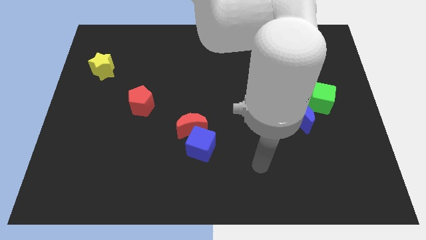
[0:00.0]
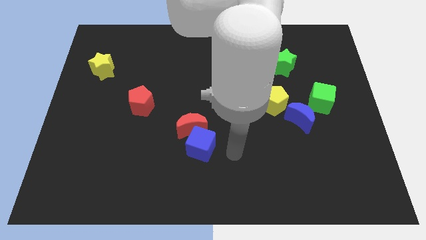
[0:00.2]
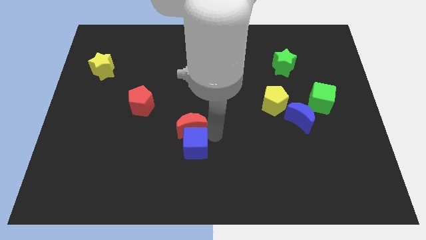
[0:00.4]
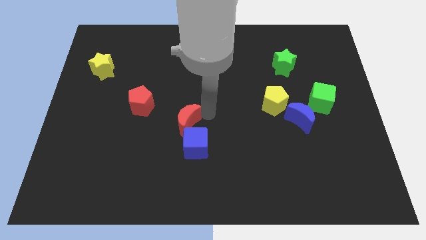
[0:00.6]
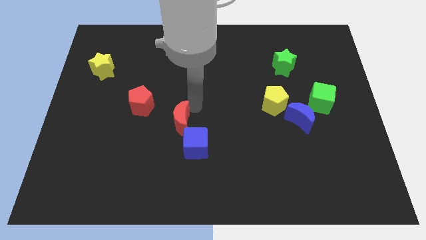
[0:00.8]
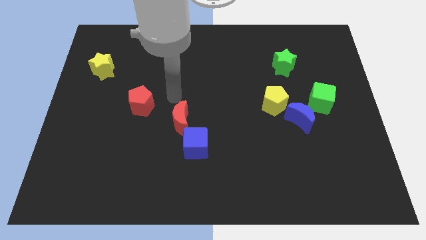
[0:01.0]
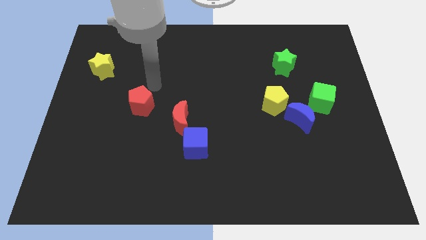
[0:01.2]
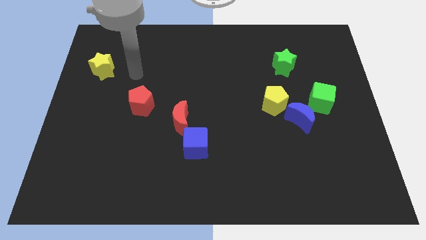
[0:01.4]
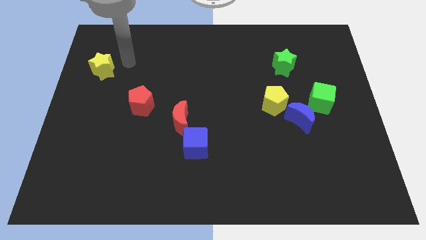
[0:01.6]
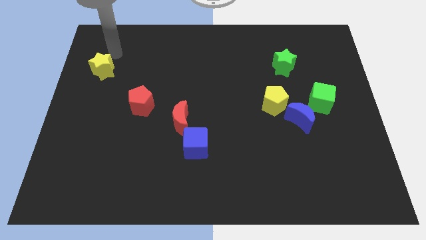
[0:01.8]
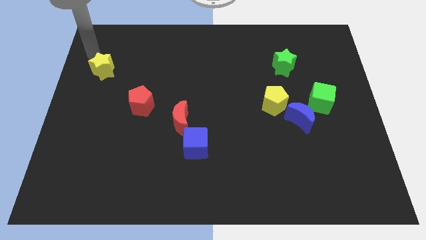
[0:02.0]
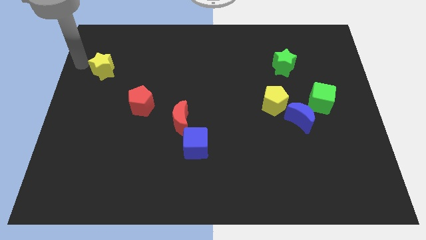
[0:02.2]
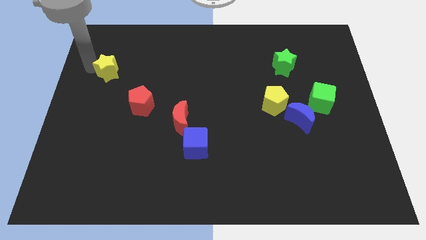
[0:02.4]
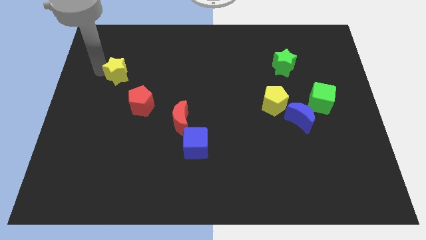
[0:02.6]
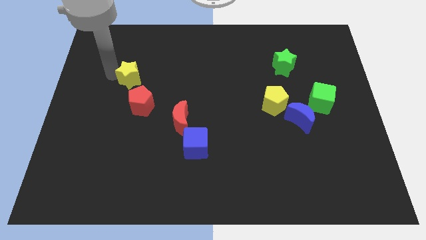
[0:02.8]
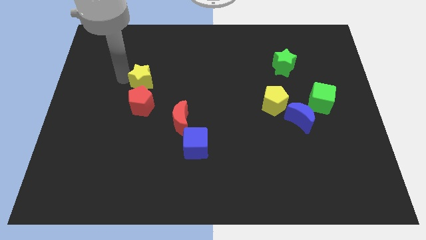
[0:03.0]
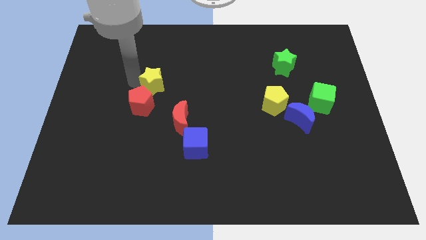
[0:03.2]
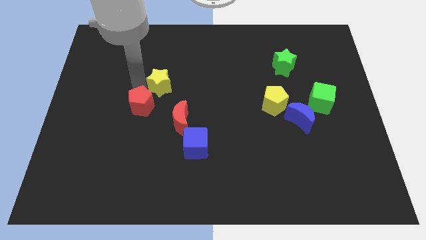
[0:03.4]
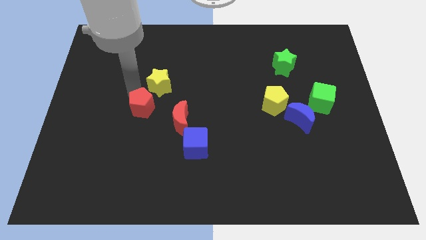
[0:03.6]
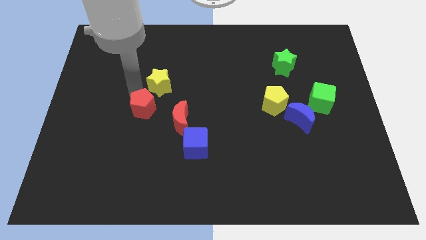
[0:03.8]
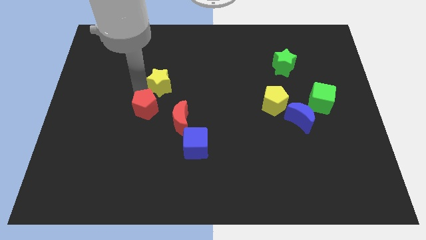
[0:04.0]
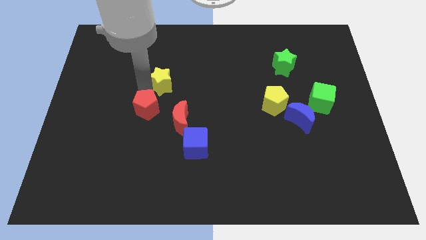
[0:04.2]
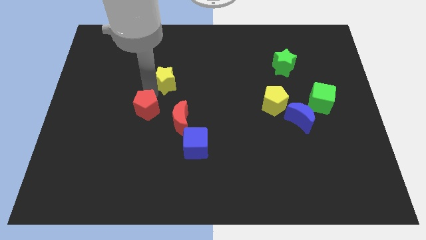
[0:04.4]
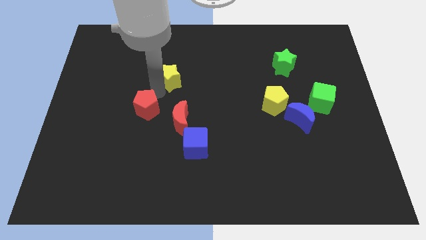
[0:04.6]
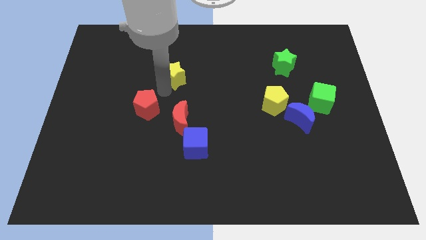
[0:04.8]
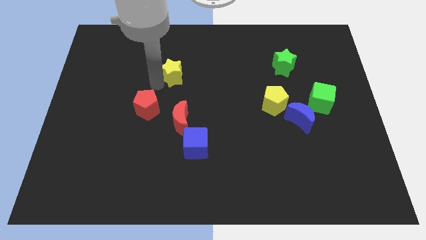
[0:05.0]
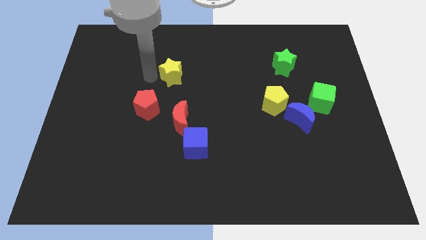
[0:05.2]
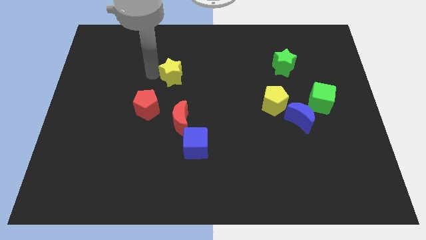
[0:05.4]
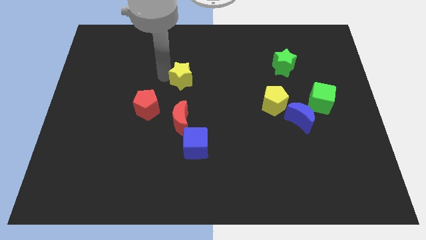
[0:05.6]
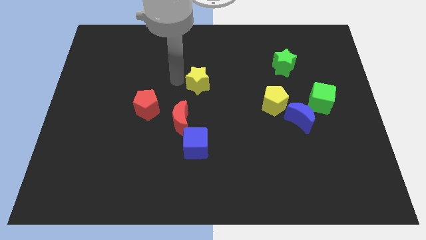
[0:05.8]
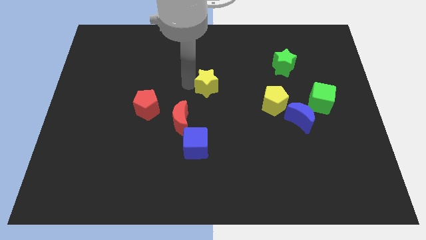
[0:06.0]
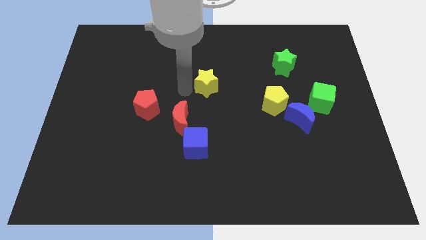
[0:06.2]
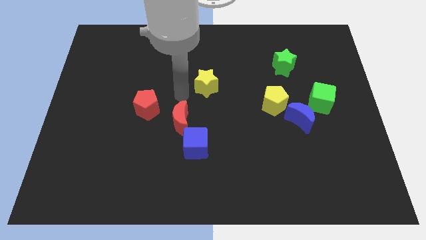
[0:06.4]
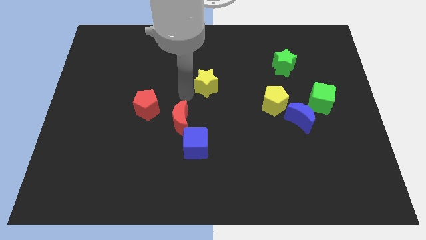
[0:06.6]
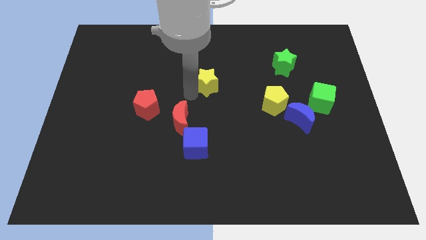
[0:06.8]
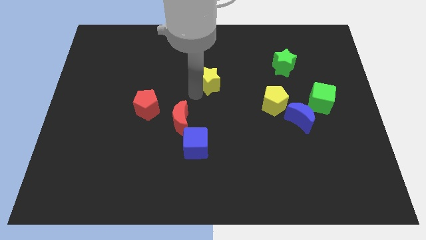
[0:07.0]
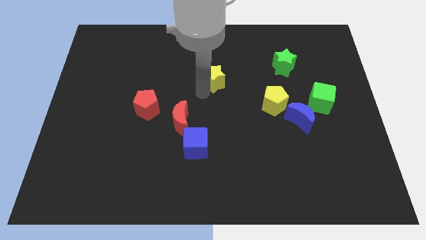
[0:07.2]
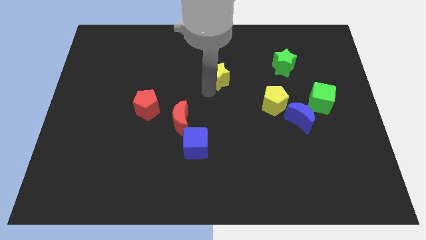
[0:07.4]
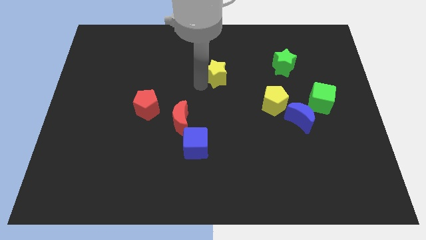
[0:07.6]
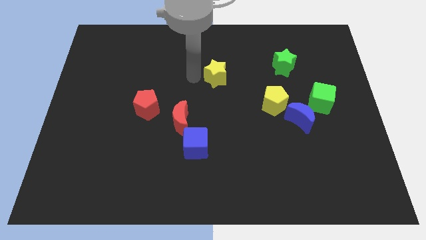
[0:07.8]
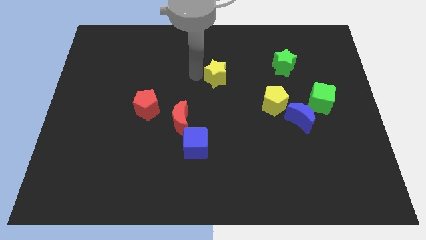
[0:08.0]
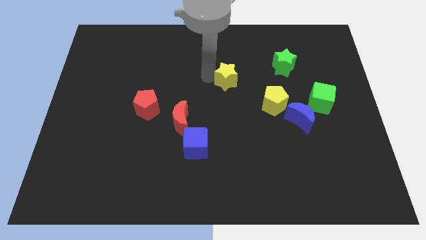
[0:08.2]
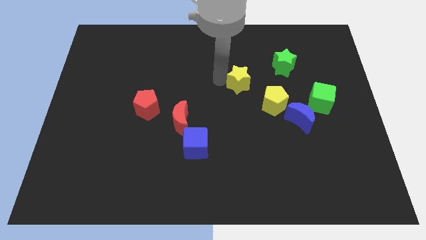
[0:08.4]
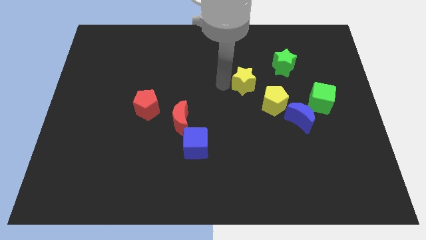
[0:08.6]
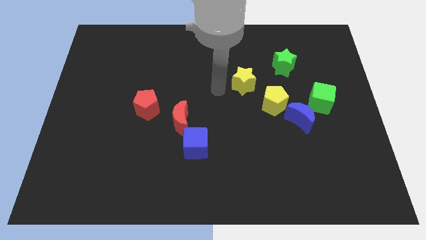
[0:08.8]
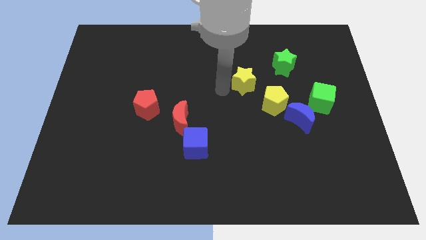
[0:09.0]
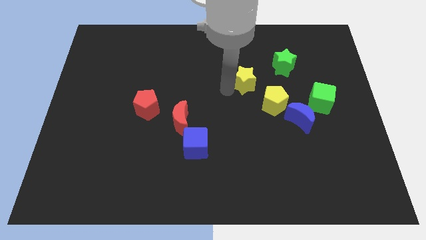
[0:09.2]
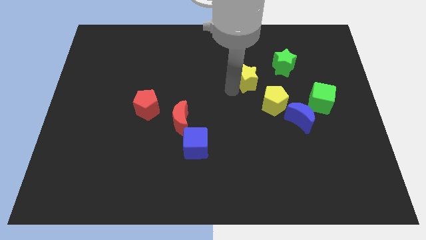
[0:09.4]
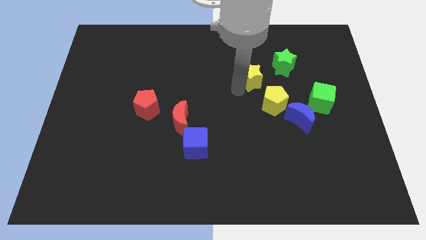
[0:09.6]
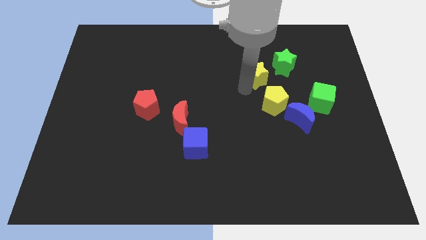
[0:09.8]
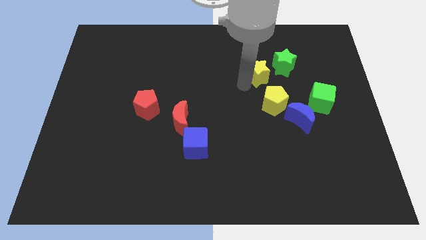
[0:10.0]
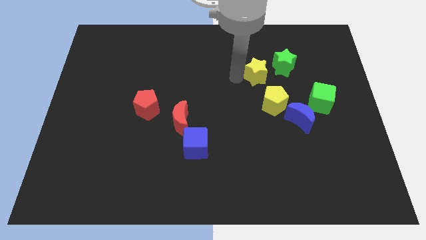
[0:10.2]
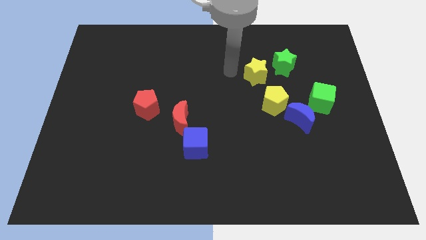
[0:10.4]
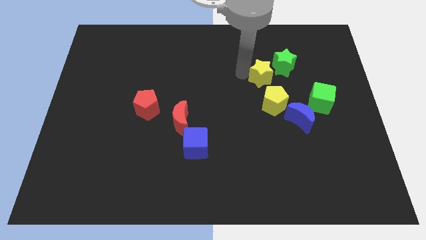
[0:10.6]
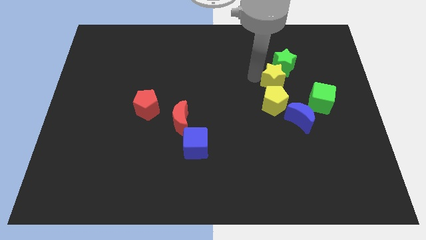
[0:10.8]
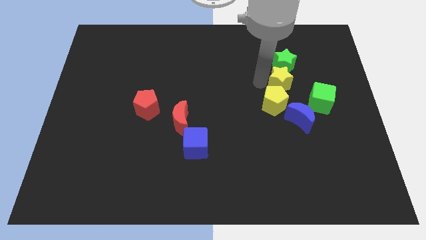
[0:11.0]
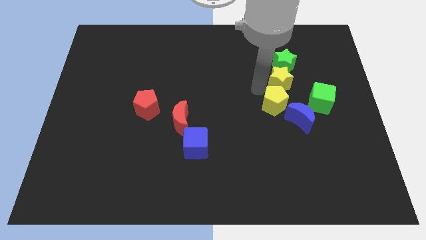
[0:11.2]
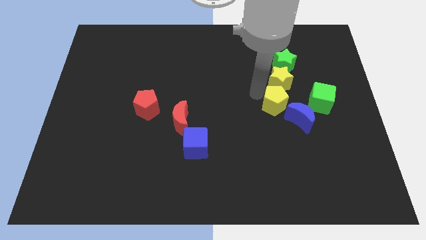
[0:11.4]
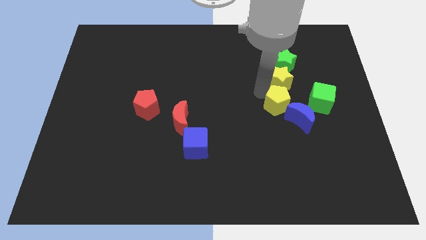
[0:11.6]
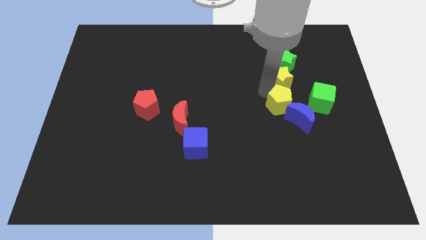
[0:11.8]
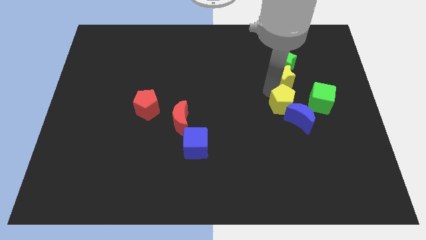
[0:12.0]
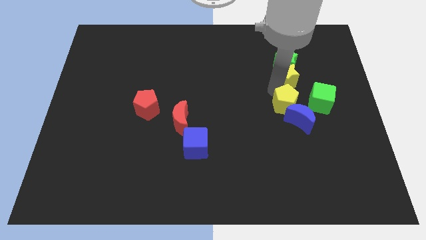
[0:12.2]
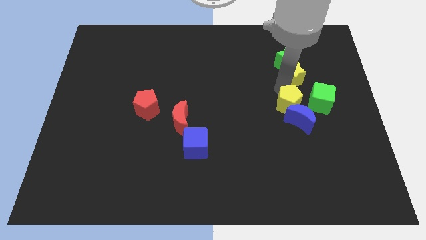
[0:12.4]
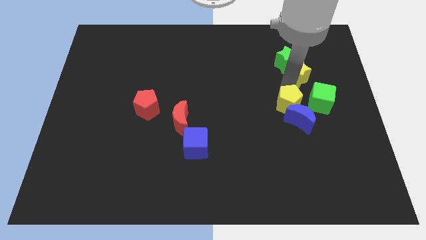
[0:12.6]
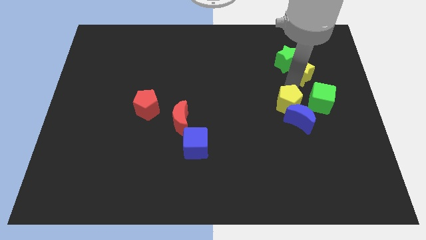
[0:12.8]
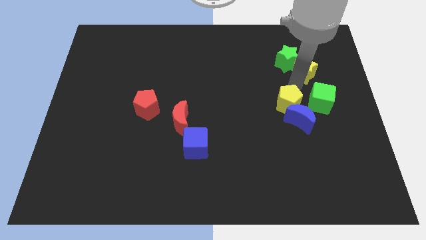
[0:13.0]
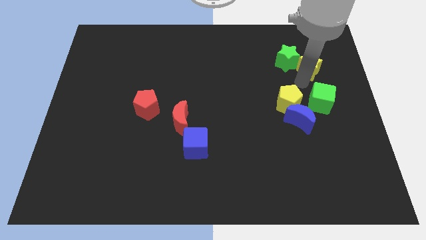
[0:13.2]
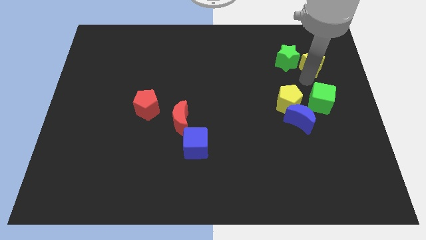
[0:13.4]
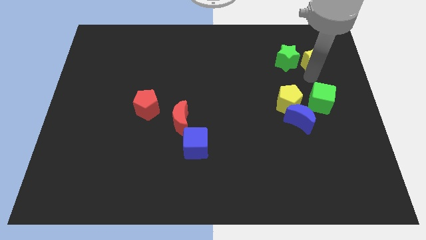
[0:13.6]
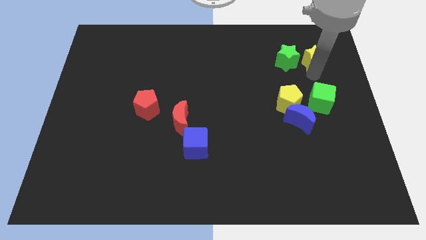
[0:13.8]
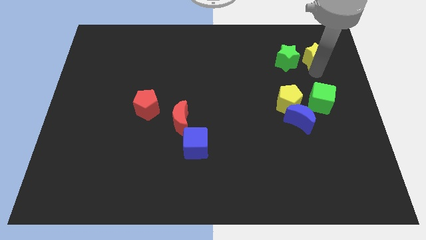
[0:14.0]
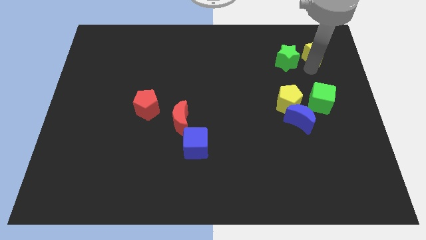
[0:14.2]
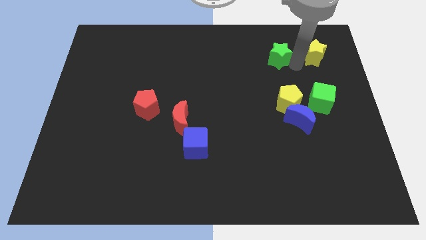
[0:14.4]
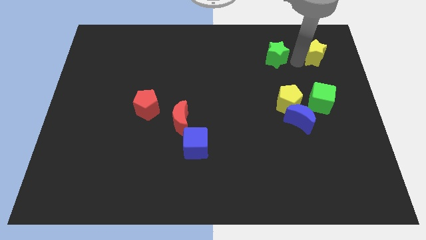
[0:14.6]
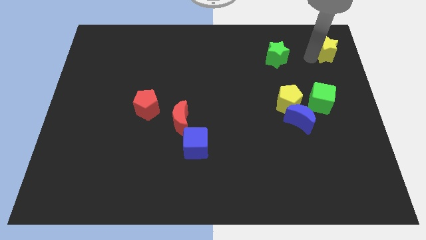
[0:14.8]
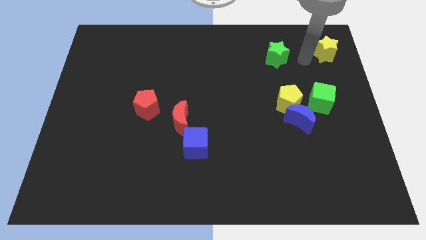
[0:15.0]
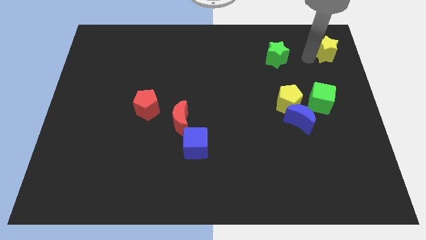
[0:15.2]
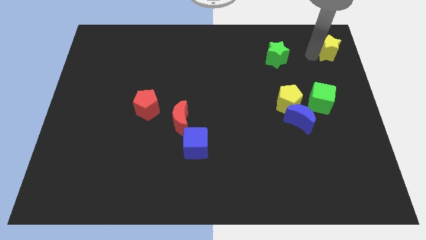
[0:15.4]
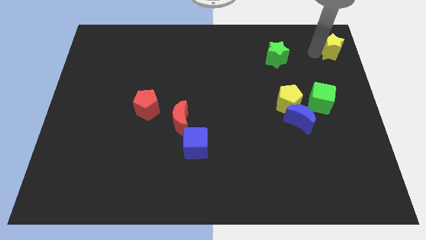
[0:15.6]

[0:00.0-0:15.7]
move the yellow star to the top right corner
